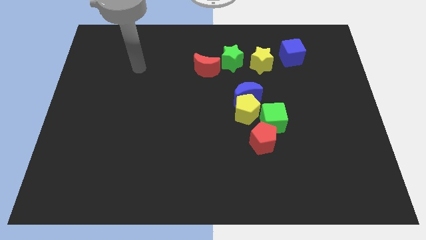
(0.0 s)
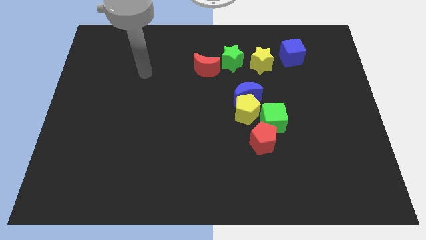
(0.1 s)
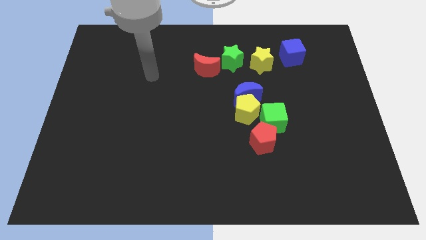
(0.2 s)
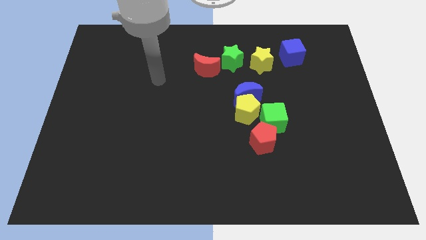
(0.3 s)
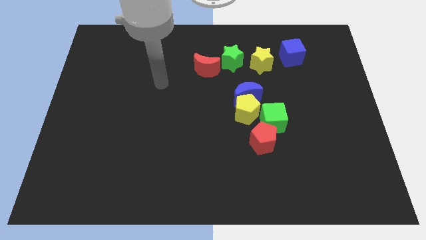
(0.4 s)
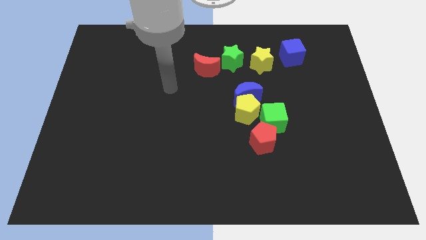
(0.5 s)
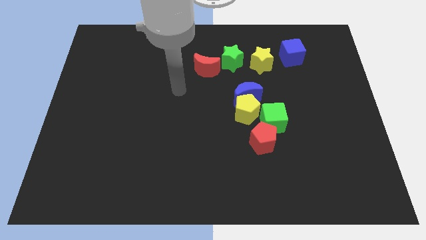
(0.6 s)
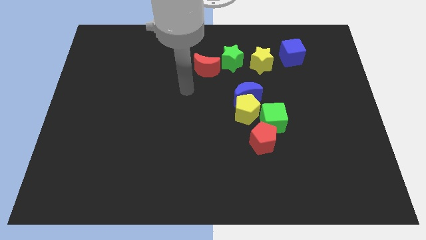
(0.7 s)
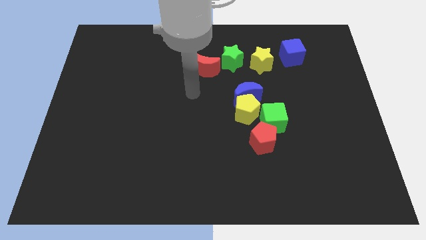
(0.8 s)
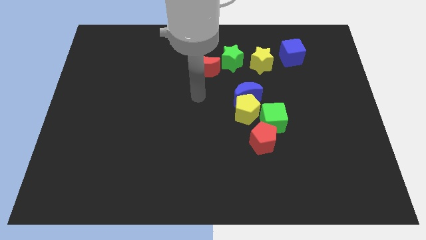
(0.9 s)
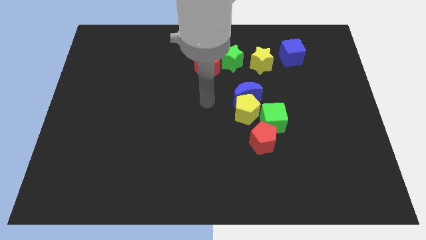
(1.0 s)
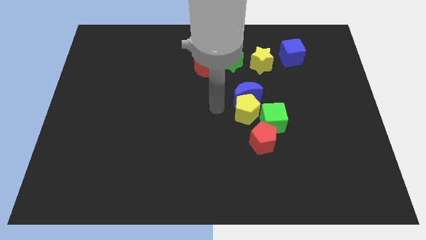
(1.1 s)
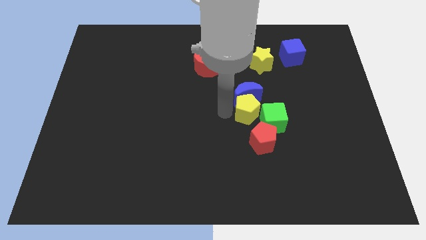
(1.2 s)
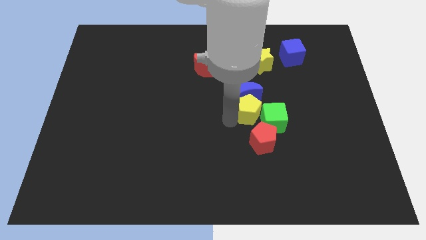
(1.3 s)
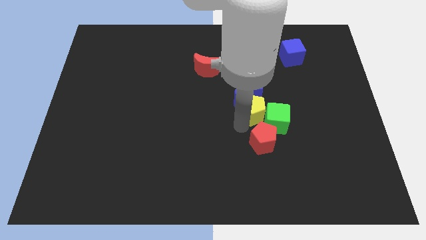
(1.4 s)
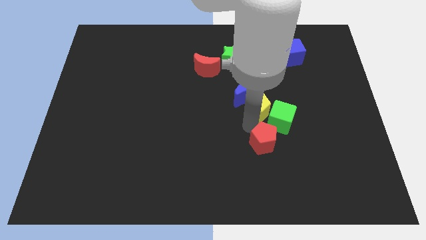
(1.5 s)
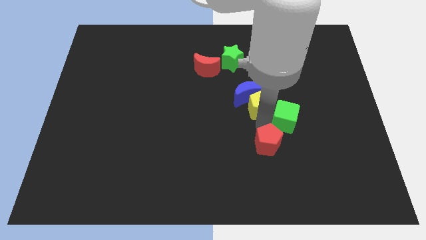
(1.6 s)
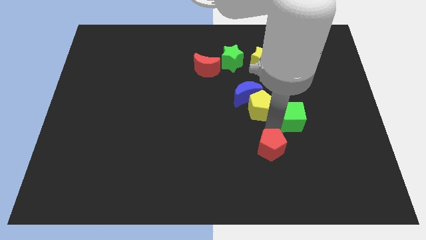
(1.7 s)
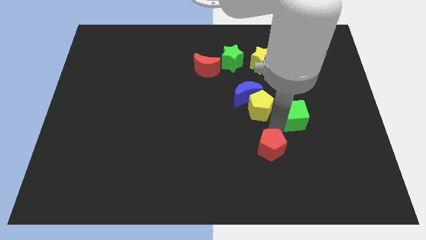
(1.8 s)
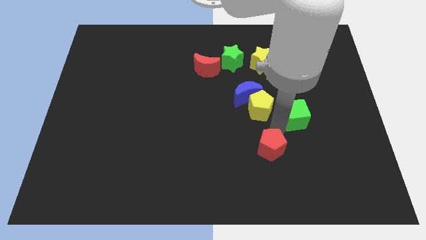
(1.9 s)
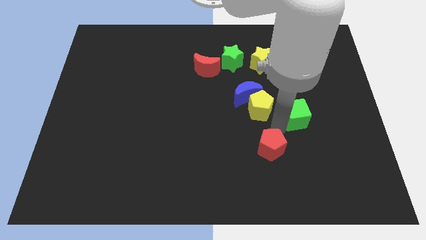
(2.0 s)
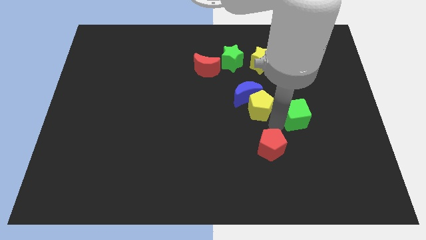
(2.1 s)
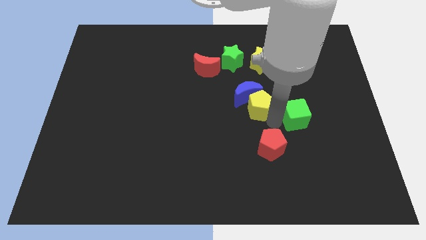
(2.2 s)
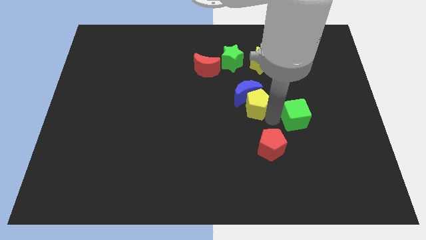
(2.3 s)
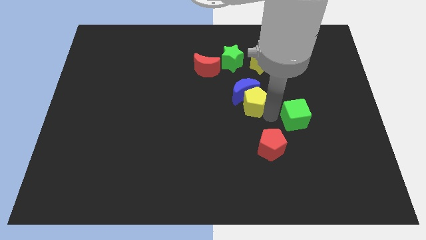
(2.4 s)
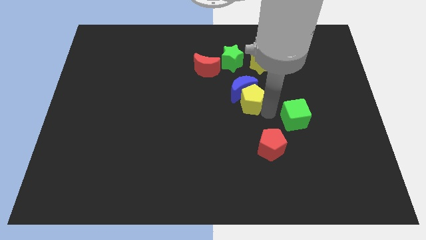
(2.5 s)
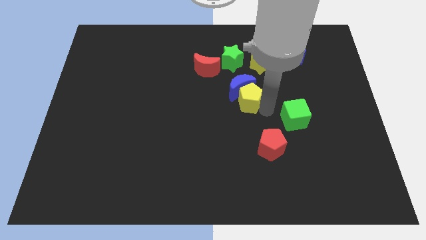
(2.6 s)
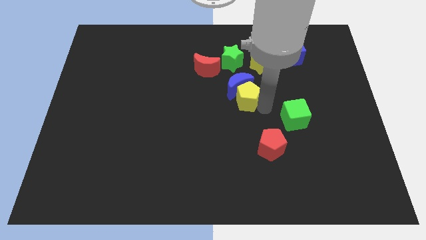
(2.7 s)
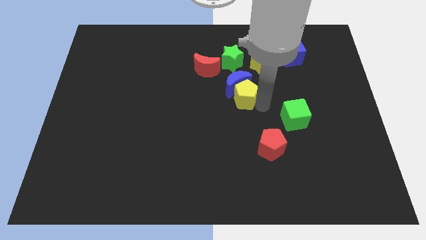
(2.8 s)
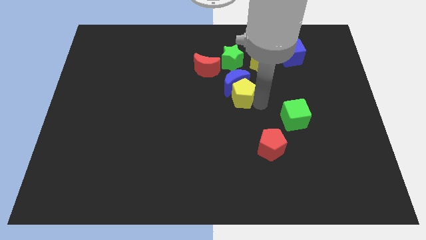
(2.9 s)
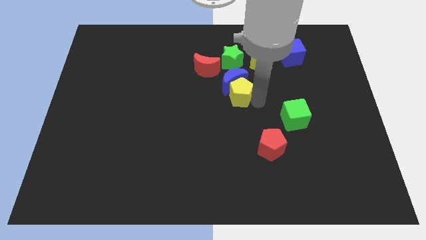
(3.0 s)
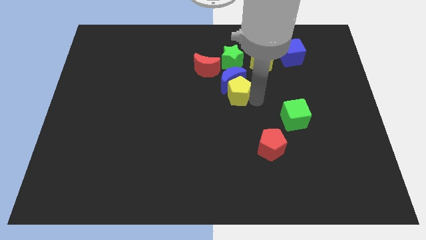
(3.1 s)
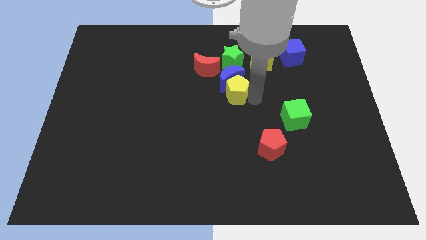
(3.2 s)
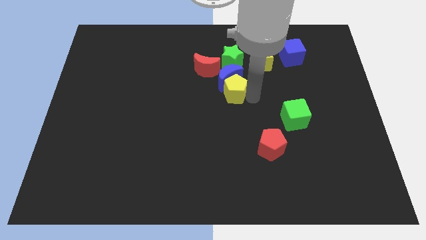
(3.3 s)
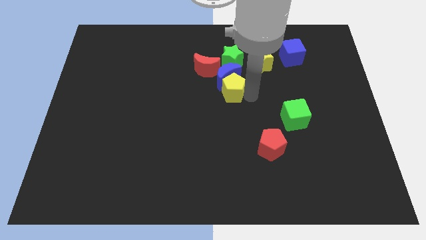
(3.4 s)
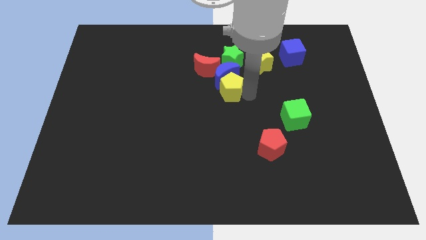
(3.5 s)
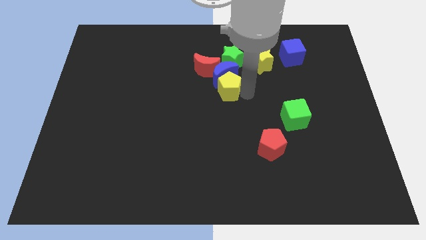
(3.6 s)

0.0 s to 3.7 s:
separate the yellow pentagon from the blue moon, green cube, and red pentagon

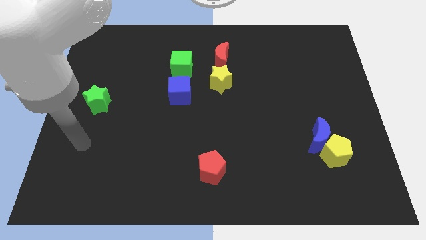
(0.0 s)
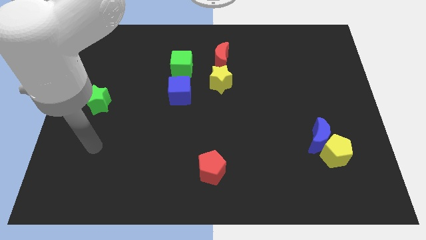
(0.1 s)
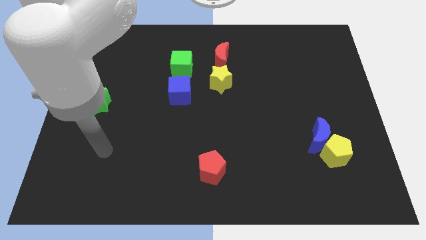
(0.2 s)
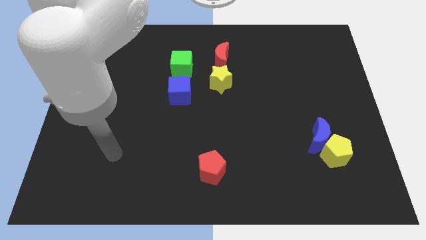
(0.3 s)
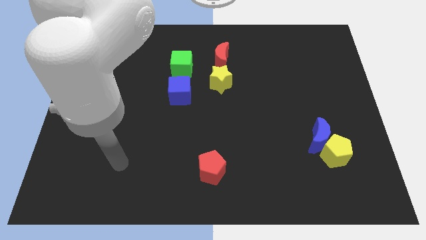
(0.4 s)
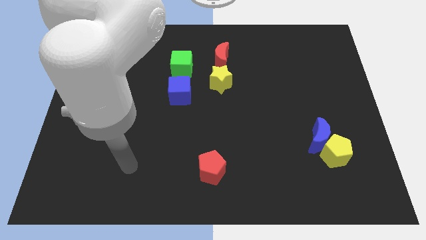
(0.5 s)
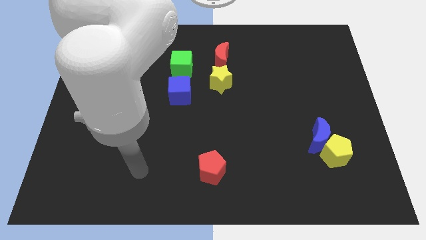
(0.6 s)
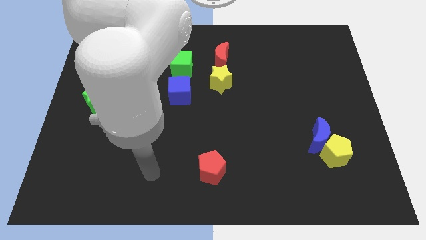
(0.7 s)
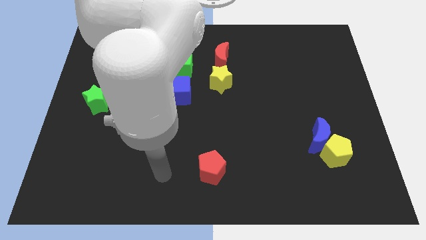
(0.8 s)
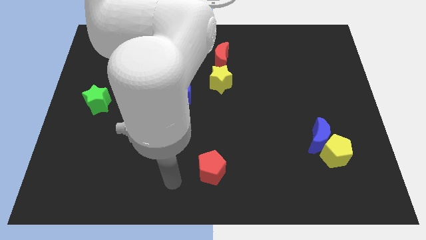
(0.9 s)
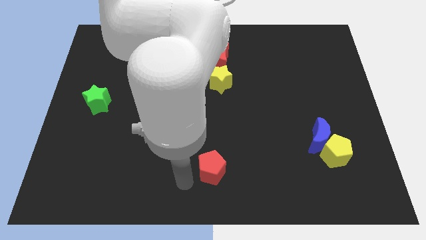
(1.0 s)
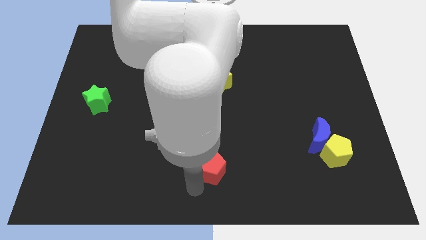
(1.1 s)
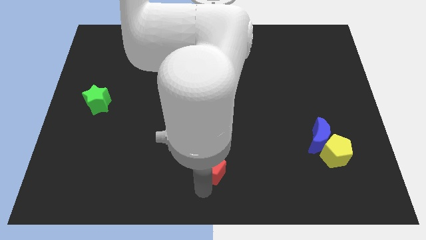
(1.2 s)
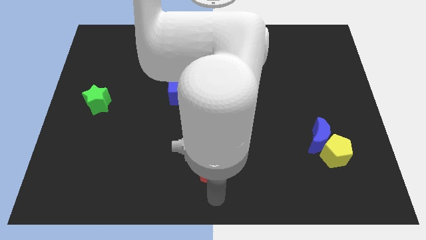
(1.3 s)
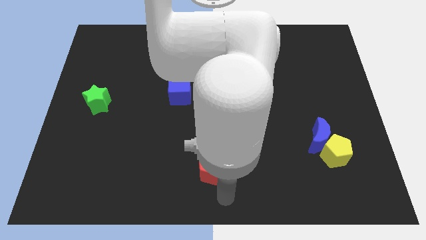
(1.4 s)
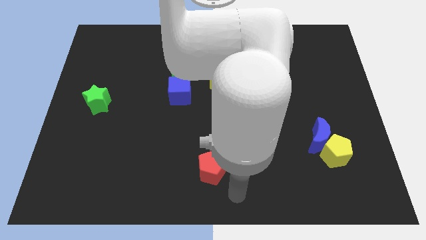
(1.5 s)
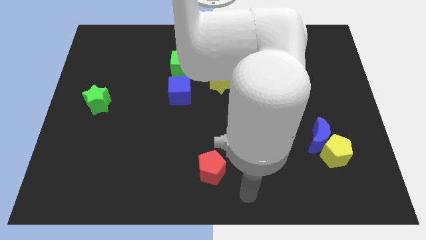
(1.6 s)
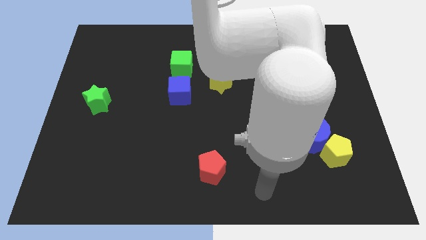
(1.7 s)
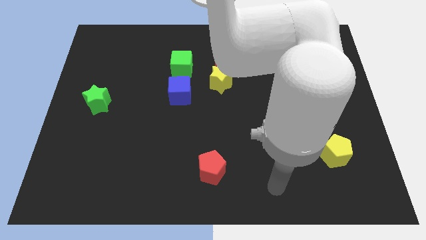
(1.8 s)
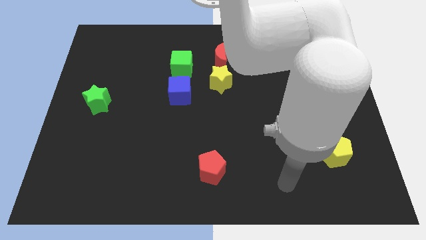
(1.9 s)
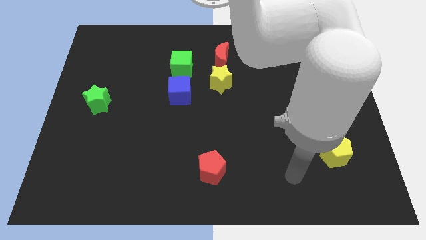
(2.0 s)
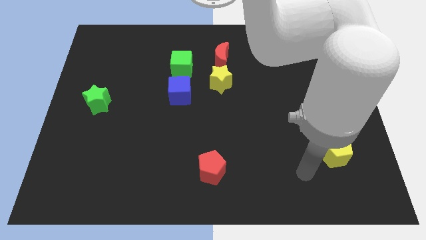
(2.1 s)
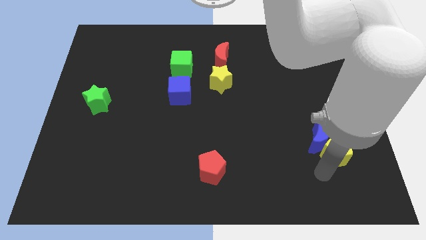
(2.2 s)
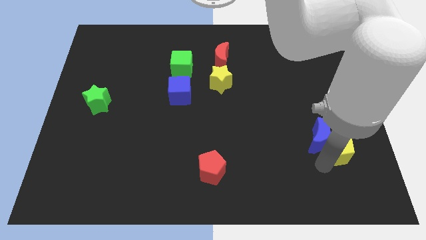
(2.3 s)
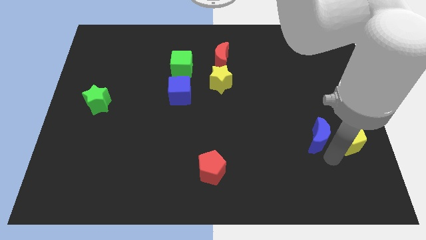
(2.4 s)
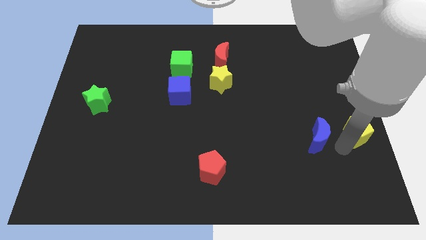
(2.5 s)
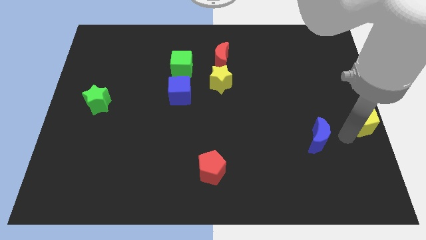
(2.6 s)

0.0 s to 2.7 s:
move the blue moon away from the yellow pentagon

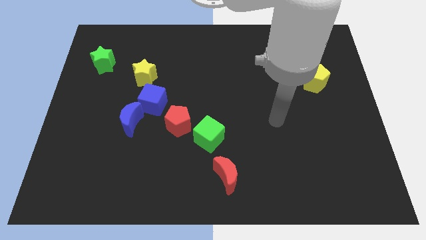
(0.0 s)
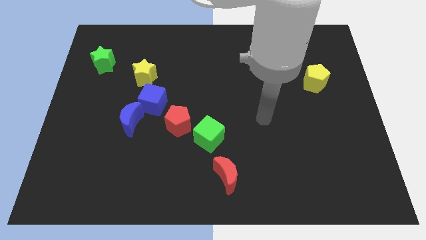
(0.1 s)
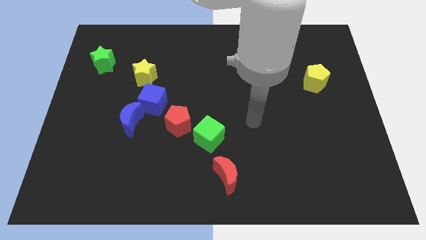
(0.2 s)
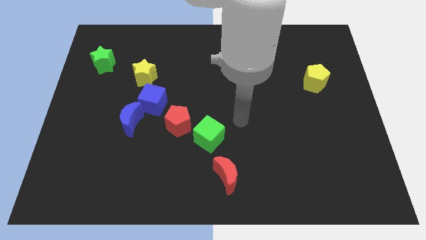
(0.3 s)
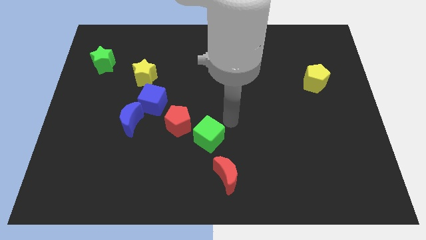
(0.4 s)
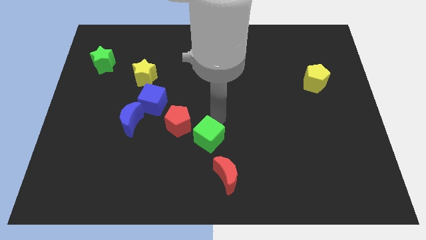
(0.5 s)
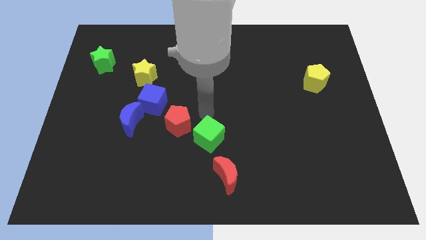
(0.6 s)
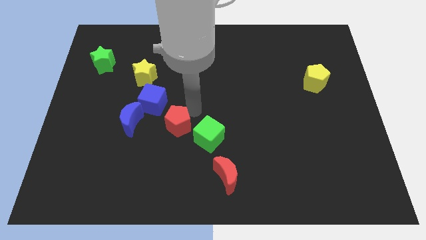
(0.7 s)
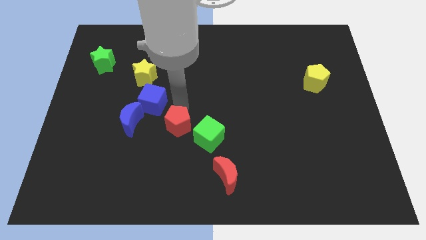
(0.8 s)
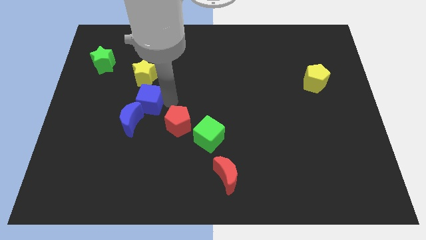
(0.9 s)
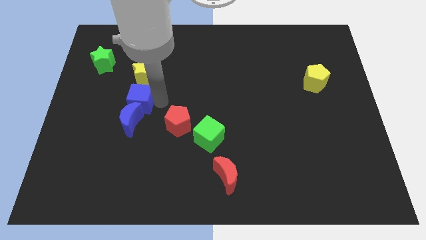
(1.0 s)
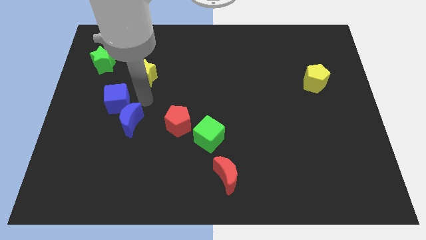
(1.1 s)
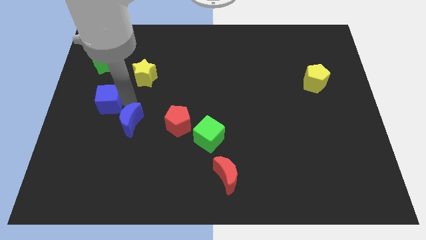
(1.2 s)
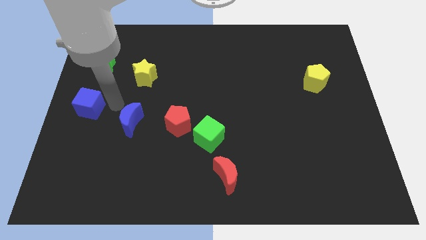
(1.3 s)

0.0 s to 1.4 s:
pull the blue moon apart from the blue cube

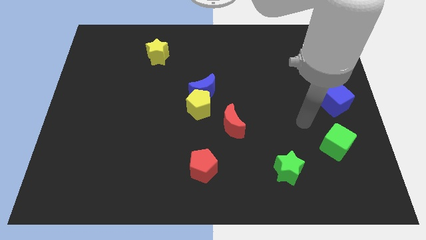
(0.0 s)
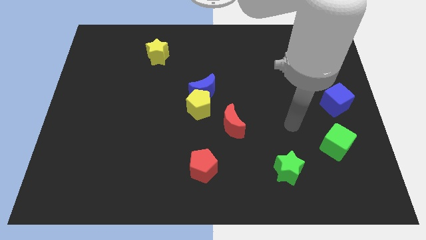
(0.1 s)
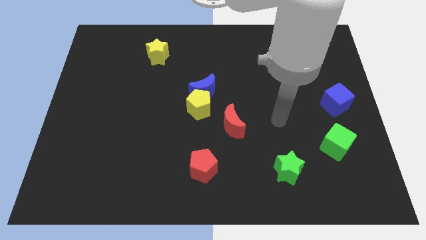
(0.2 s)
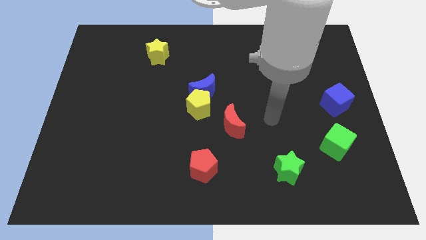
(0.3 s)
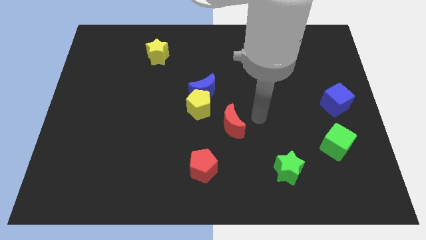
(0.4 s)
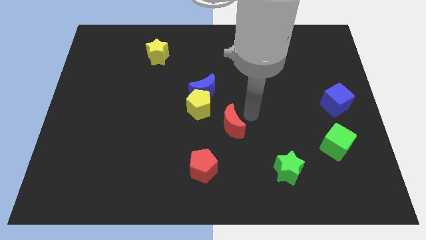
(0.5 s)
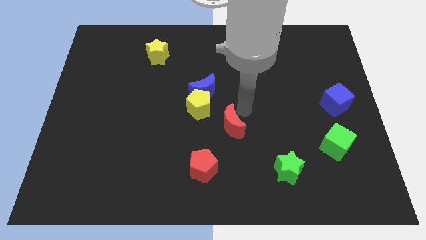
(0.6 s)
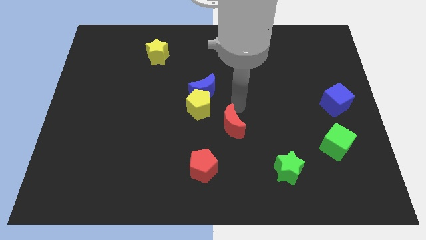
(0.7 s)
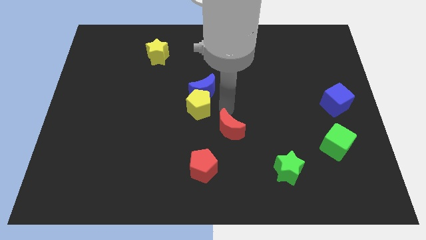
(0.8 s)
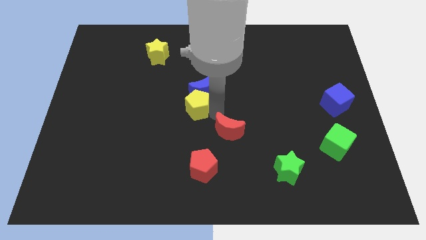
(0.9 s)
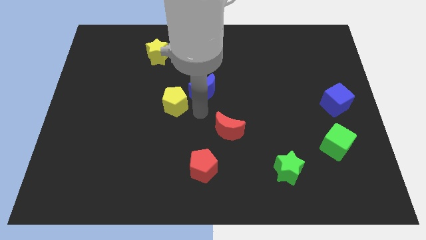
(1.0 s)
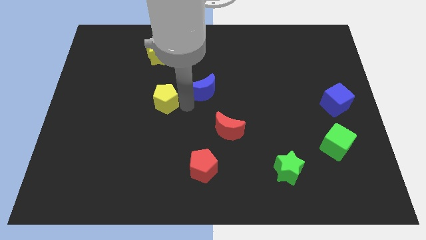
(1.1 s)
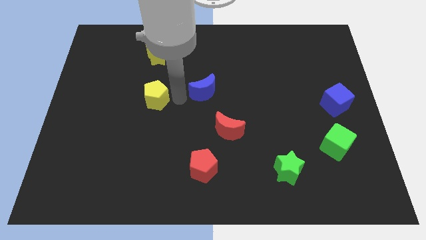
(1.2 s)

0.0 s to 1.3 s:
separate the blue moon from the yellow pentagon

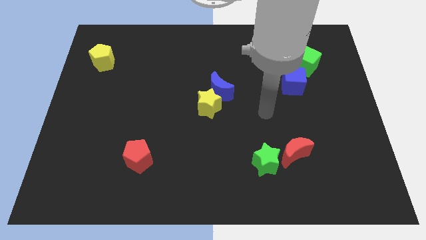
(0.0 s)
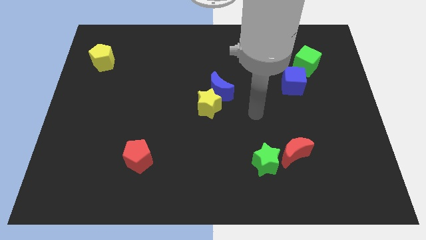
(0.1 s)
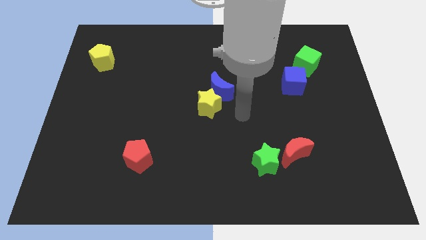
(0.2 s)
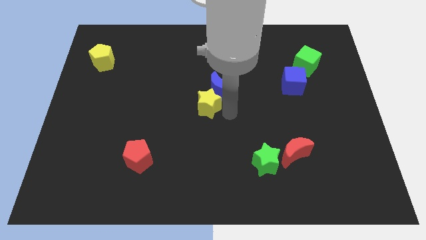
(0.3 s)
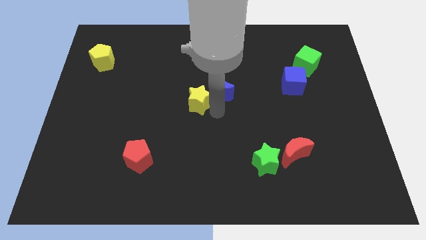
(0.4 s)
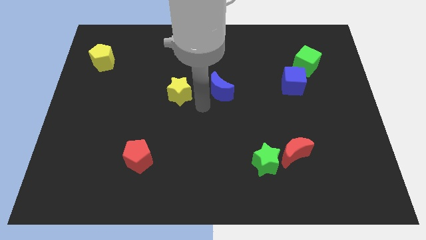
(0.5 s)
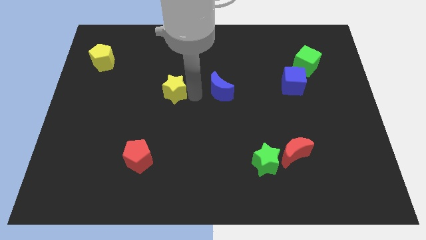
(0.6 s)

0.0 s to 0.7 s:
pull the blue moon apart from the yellow star
